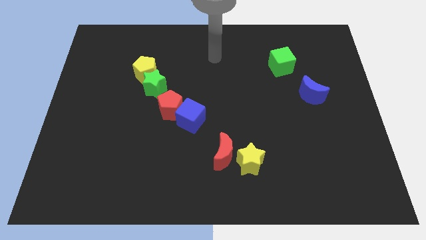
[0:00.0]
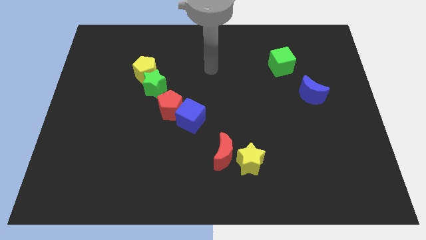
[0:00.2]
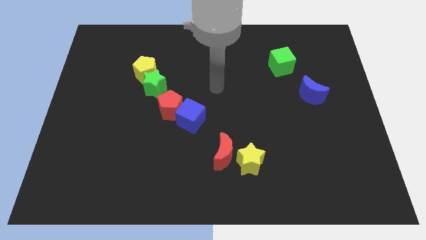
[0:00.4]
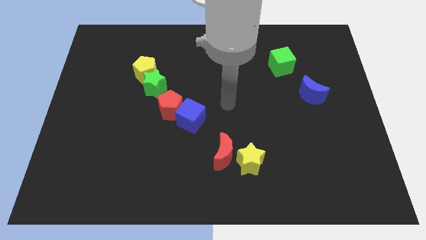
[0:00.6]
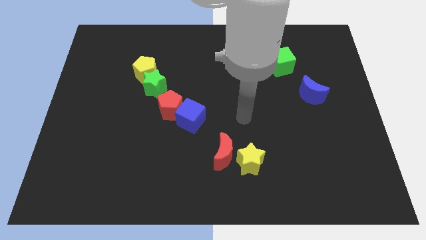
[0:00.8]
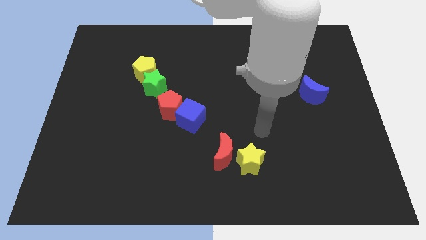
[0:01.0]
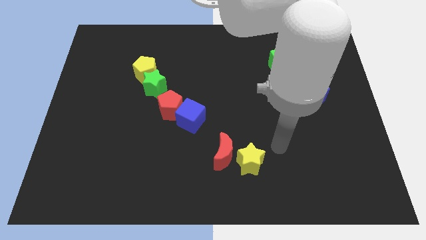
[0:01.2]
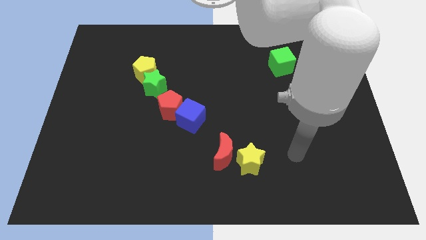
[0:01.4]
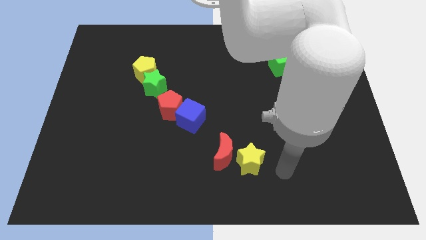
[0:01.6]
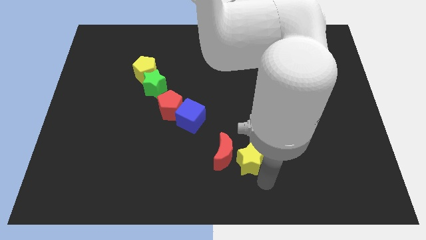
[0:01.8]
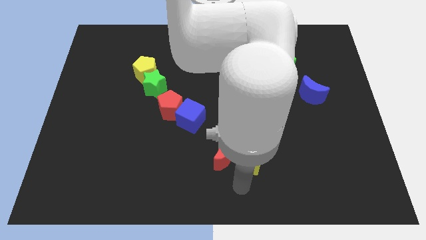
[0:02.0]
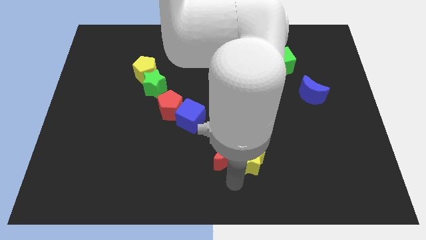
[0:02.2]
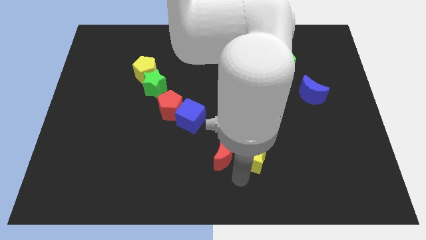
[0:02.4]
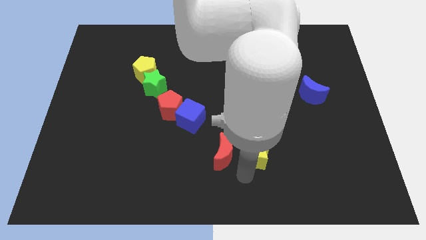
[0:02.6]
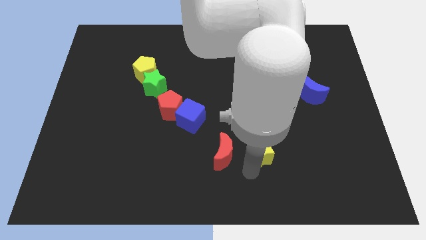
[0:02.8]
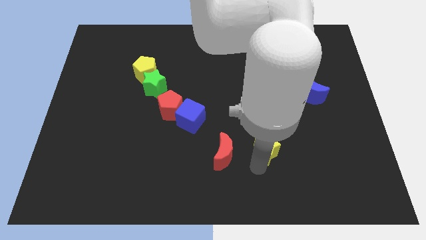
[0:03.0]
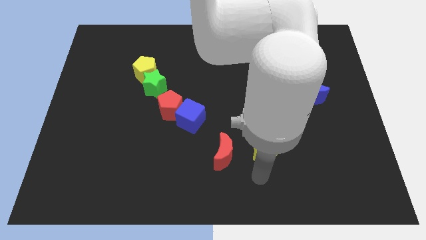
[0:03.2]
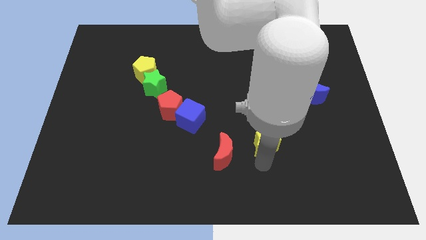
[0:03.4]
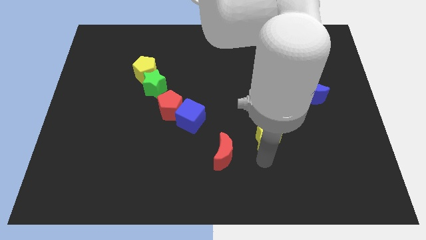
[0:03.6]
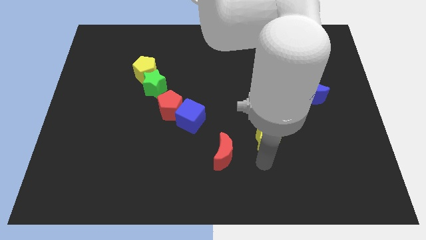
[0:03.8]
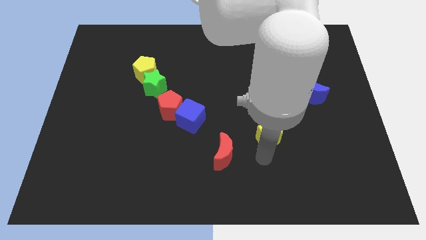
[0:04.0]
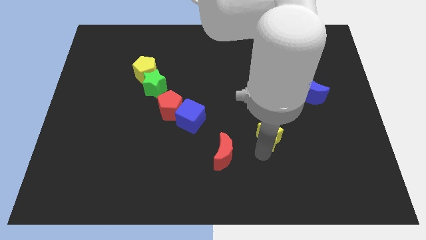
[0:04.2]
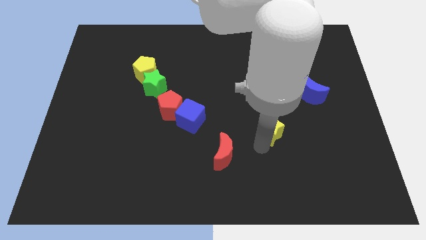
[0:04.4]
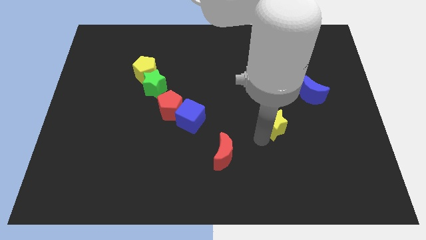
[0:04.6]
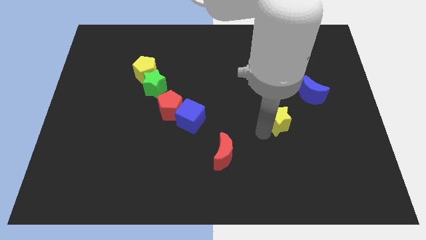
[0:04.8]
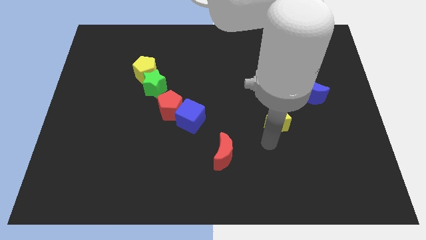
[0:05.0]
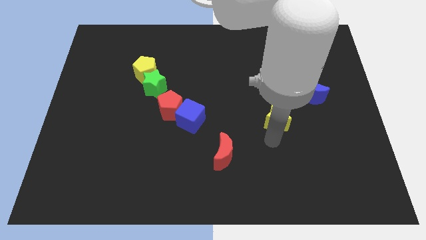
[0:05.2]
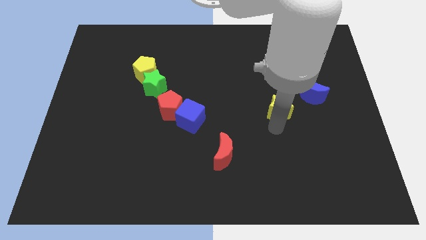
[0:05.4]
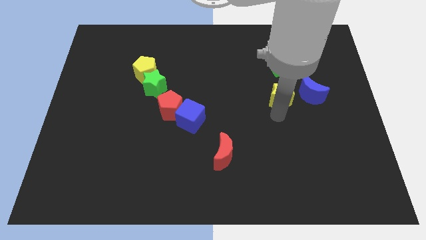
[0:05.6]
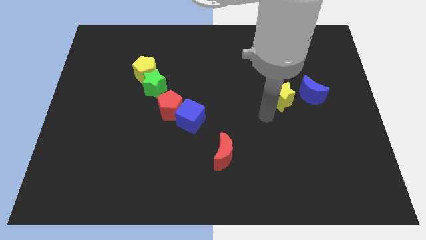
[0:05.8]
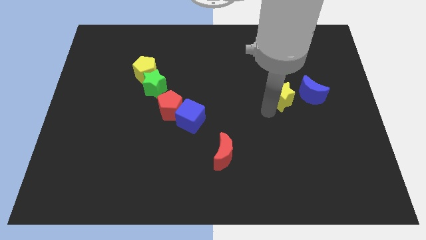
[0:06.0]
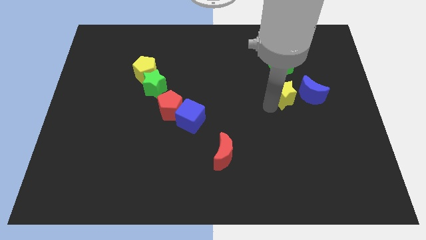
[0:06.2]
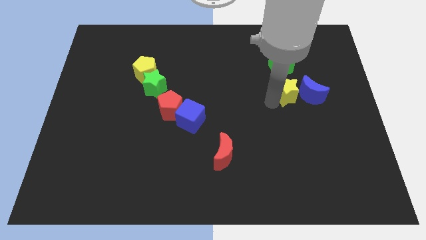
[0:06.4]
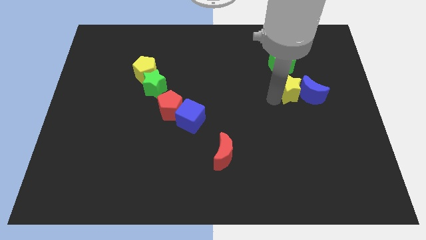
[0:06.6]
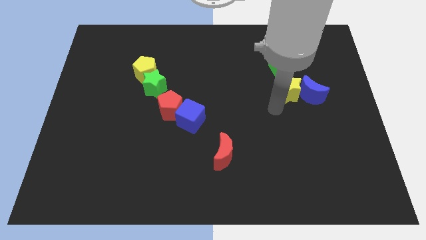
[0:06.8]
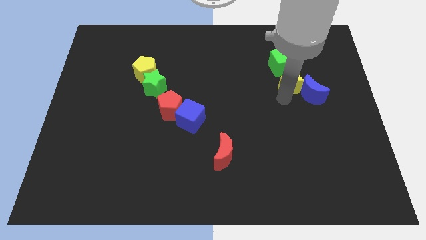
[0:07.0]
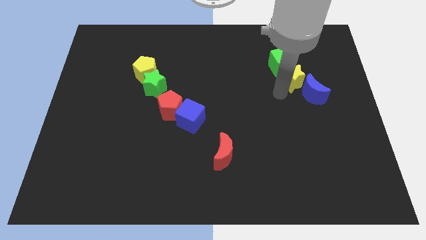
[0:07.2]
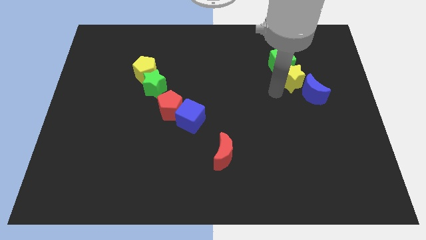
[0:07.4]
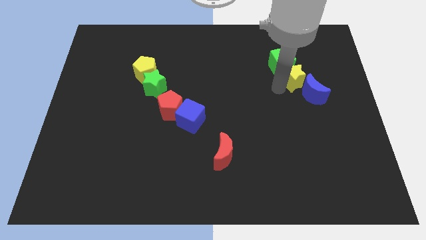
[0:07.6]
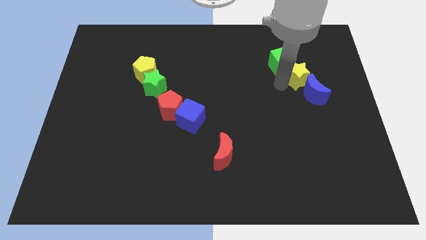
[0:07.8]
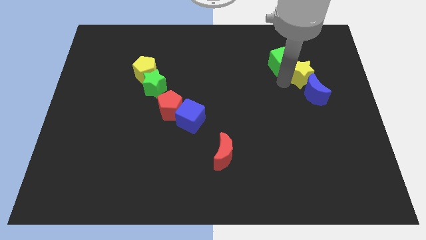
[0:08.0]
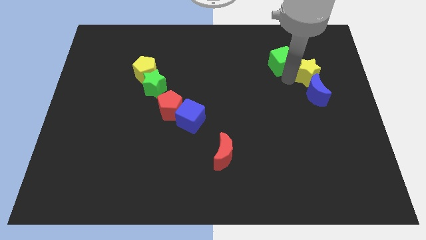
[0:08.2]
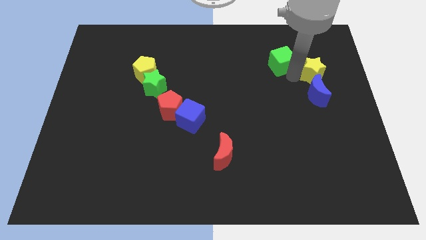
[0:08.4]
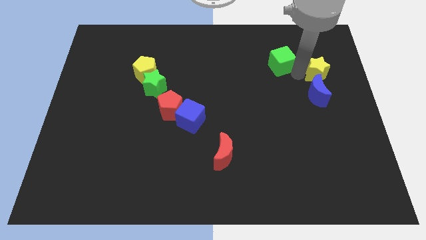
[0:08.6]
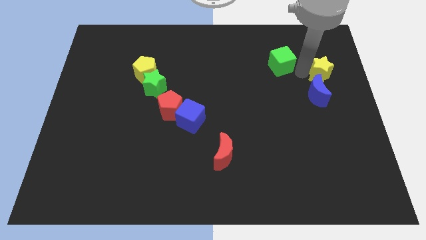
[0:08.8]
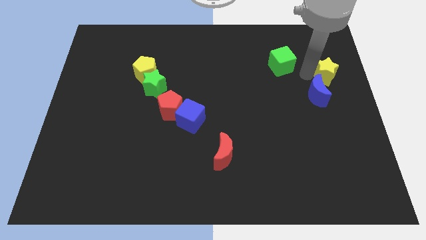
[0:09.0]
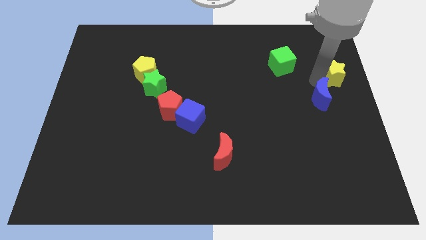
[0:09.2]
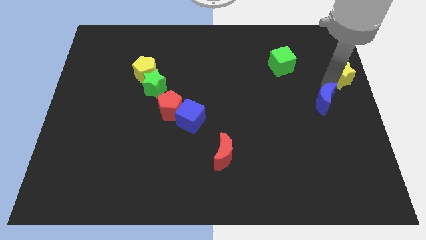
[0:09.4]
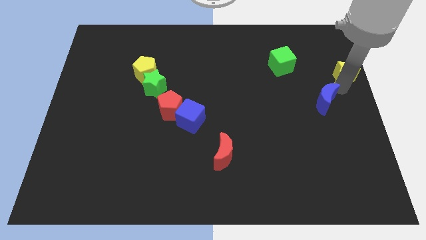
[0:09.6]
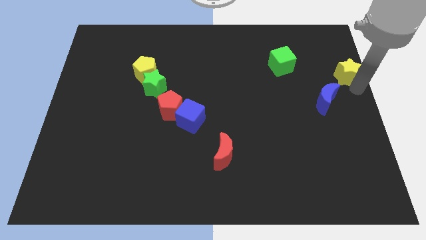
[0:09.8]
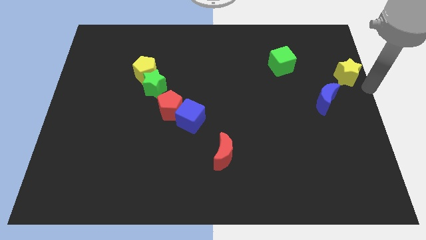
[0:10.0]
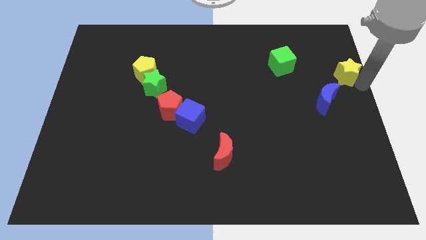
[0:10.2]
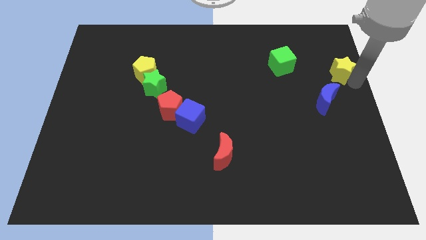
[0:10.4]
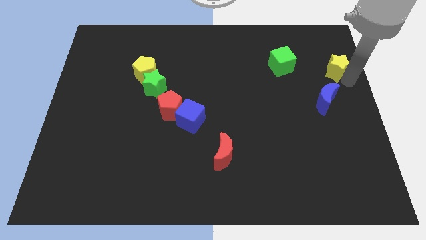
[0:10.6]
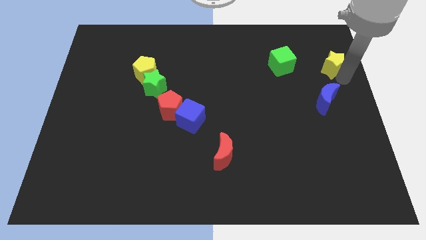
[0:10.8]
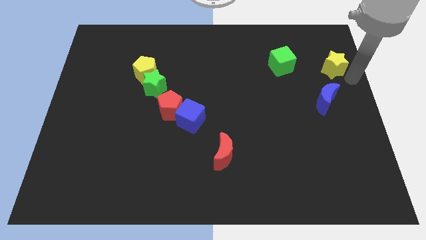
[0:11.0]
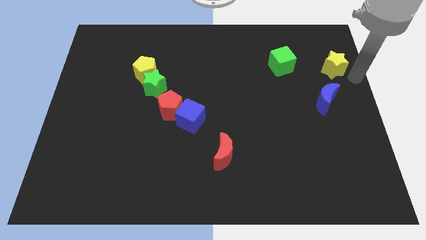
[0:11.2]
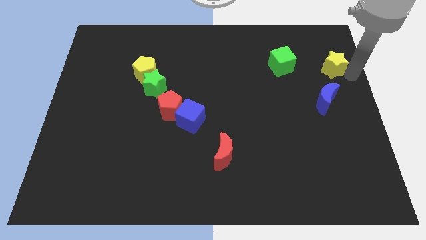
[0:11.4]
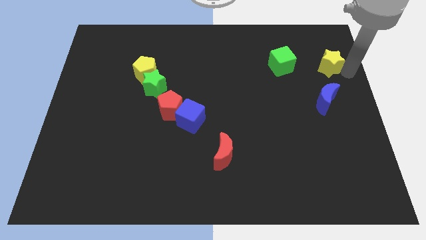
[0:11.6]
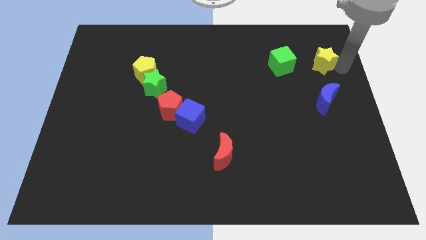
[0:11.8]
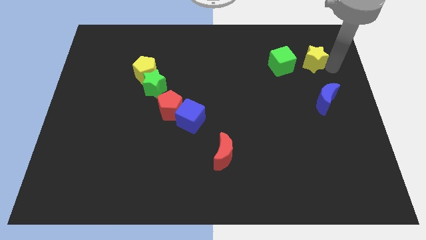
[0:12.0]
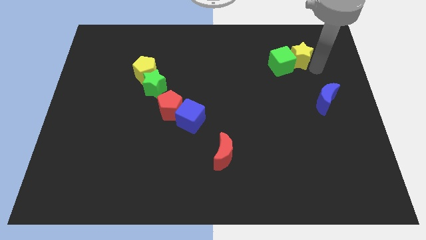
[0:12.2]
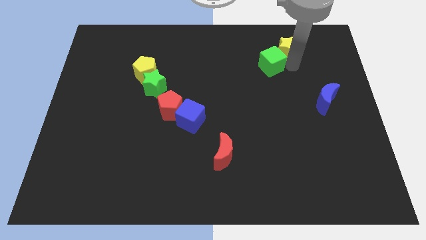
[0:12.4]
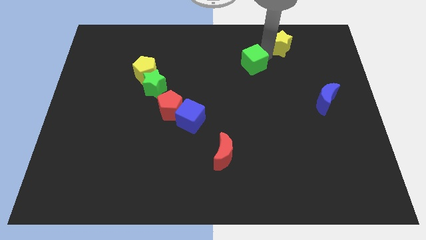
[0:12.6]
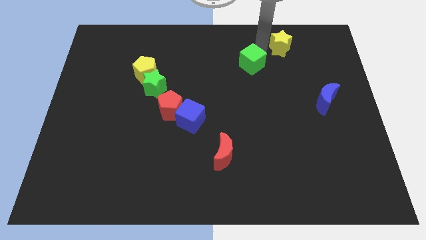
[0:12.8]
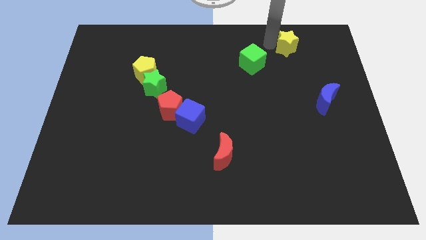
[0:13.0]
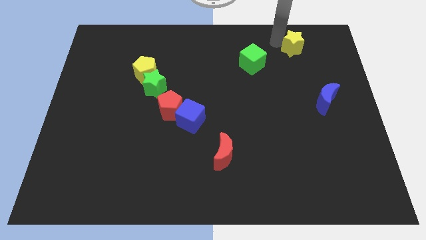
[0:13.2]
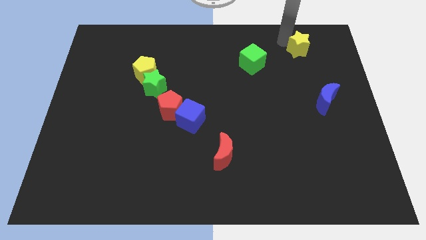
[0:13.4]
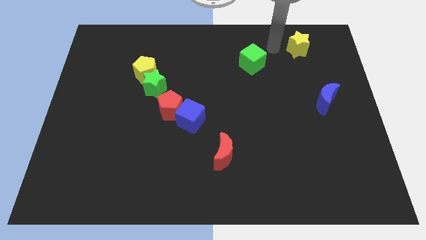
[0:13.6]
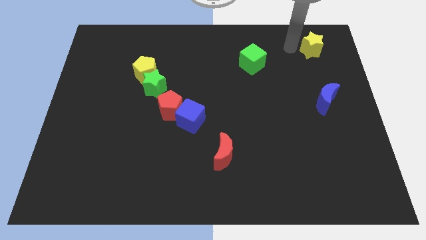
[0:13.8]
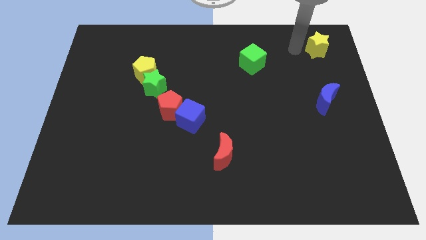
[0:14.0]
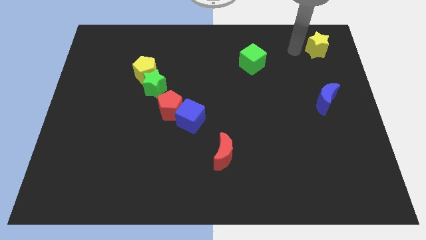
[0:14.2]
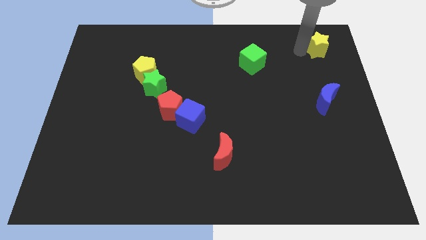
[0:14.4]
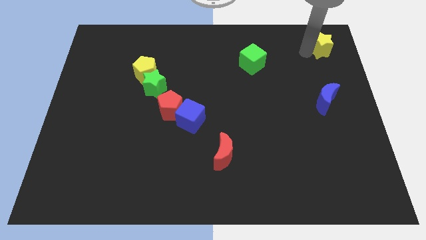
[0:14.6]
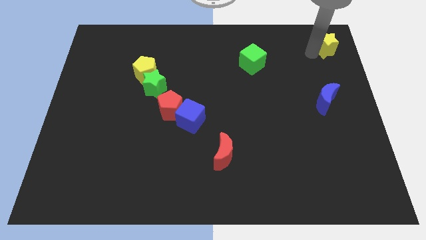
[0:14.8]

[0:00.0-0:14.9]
move the yellow star to the upper right corner
